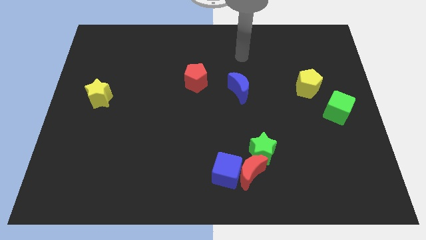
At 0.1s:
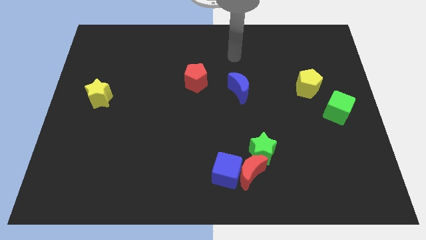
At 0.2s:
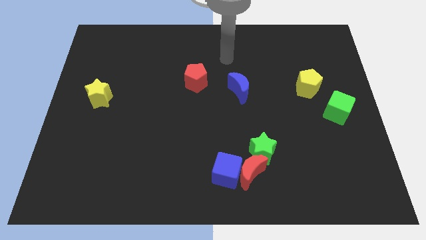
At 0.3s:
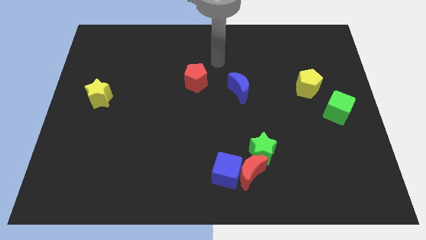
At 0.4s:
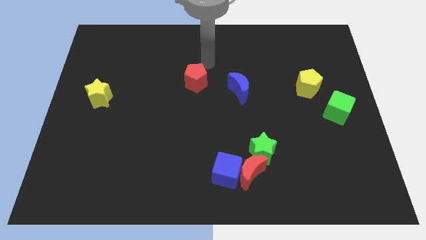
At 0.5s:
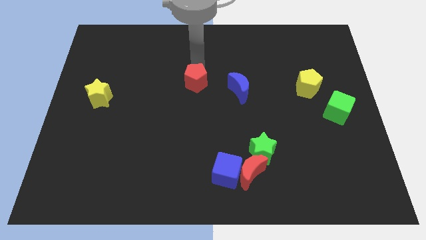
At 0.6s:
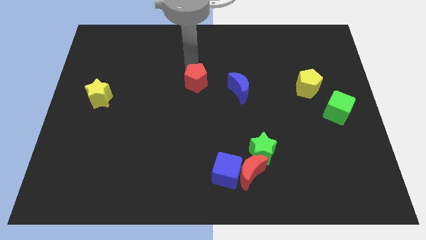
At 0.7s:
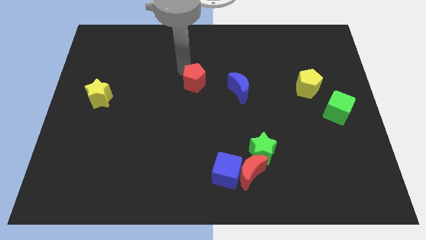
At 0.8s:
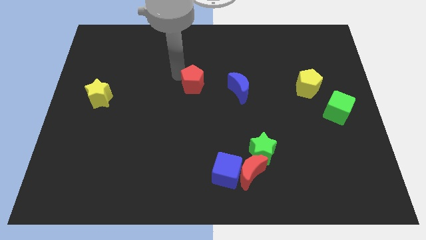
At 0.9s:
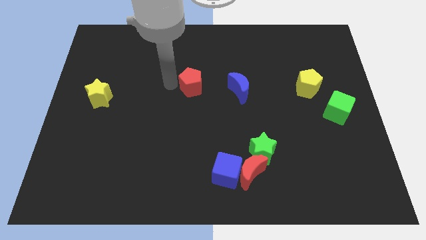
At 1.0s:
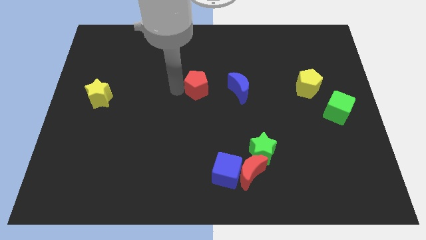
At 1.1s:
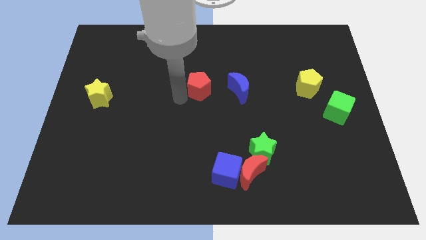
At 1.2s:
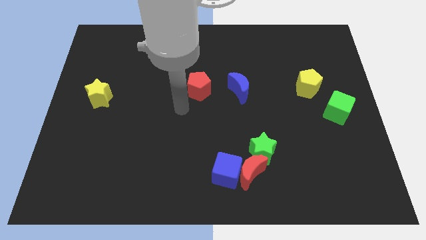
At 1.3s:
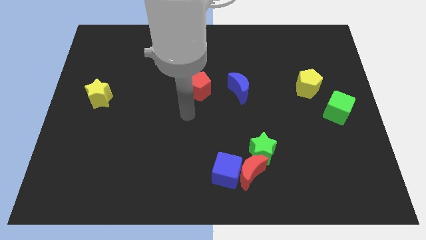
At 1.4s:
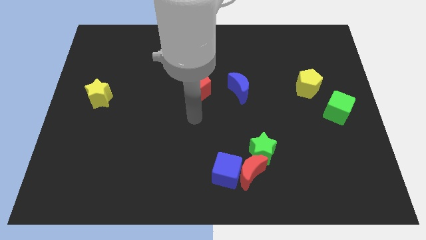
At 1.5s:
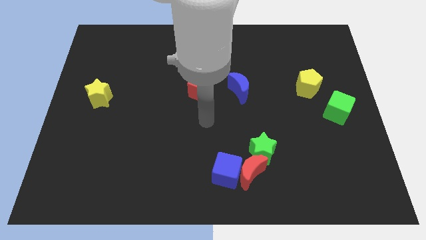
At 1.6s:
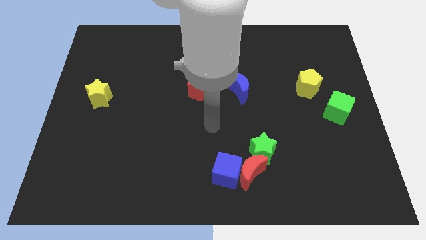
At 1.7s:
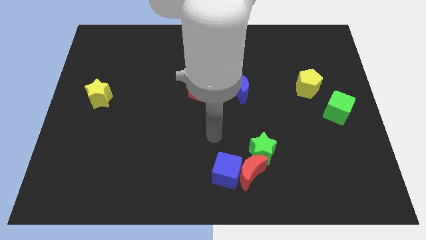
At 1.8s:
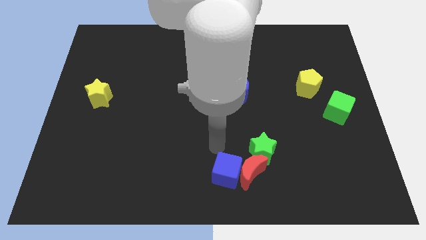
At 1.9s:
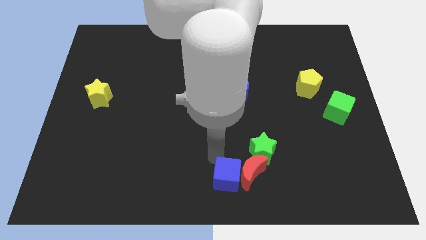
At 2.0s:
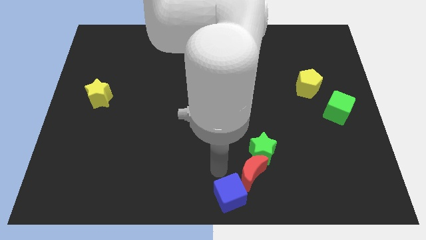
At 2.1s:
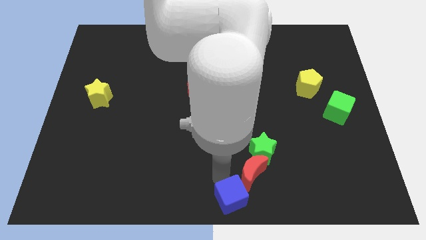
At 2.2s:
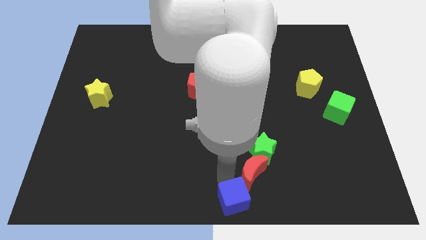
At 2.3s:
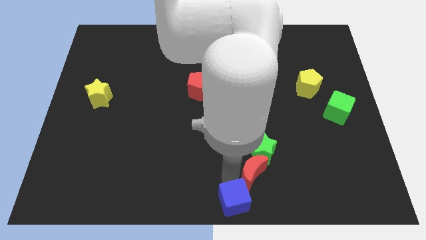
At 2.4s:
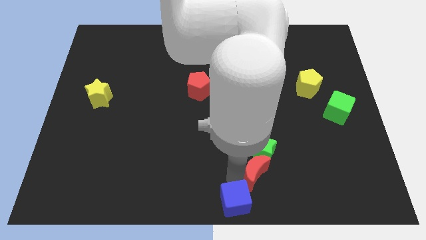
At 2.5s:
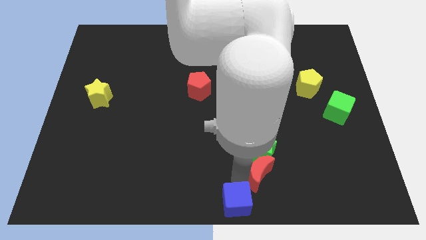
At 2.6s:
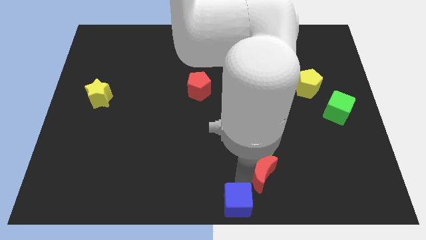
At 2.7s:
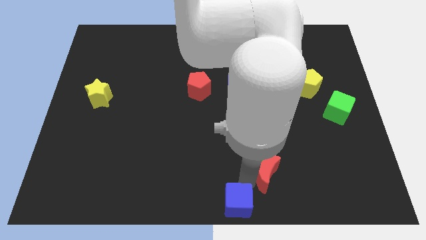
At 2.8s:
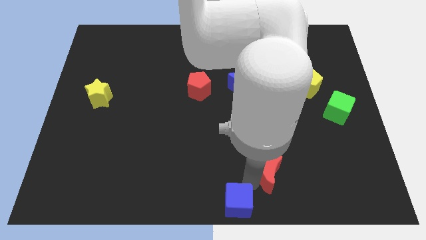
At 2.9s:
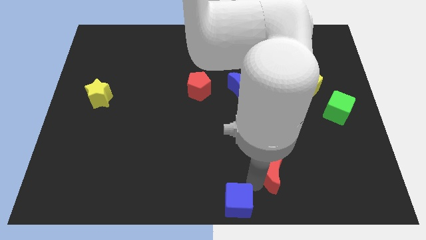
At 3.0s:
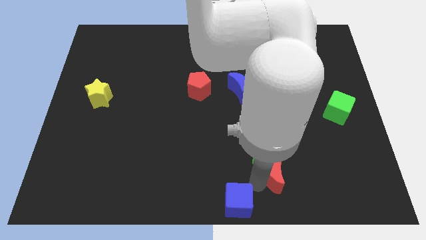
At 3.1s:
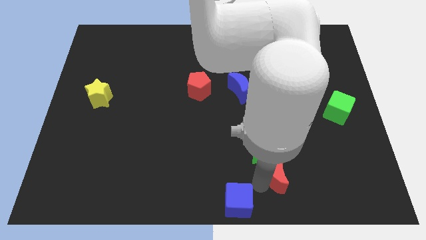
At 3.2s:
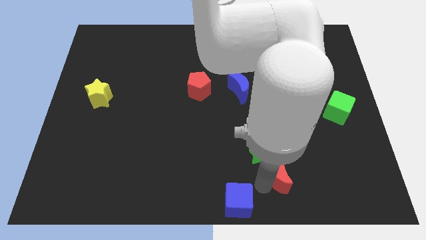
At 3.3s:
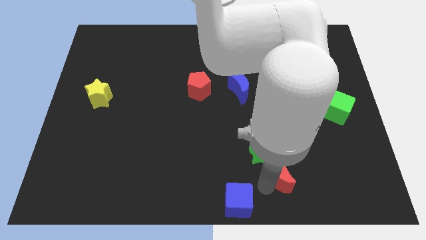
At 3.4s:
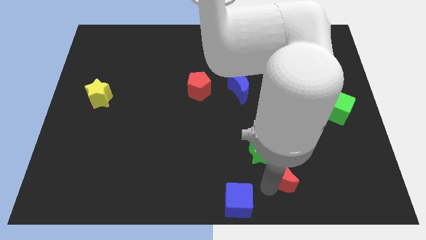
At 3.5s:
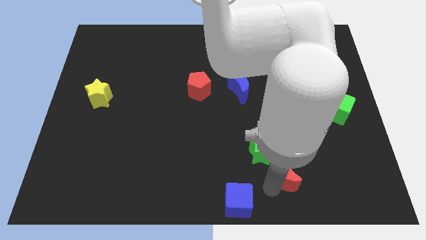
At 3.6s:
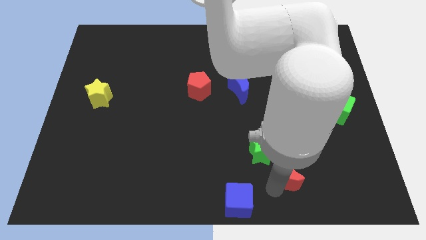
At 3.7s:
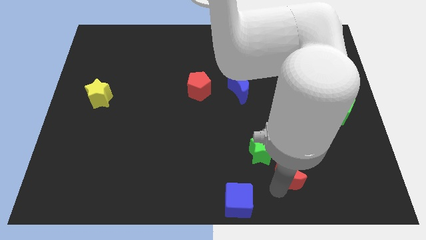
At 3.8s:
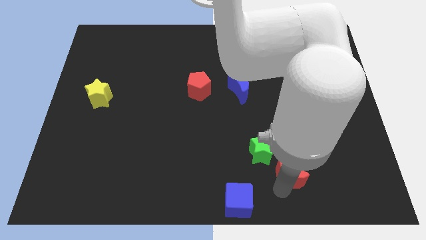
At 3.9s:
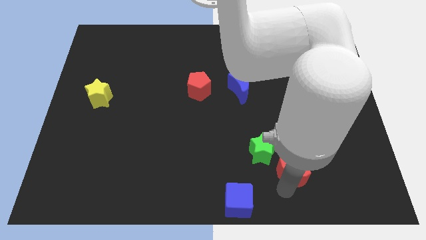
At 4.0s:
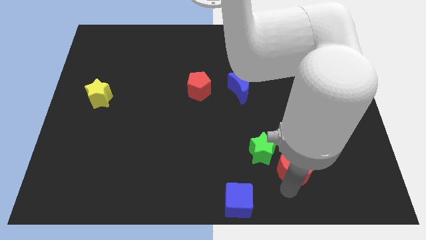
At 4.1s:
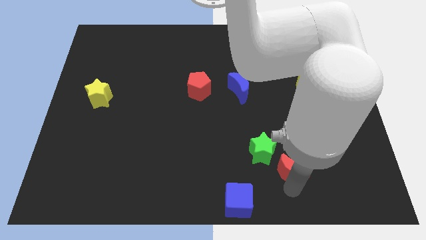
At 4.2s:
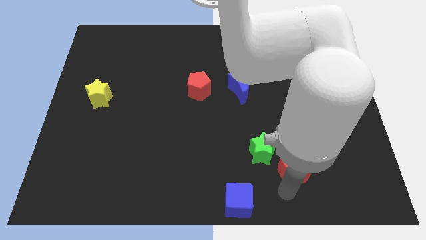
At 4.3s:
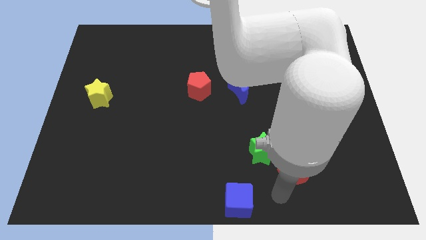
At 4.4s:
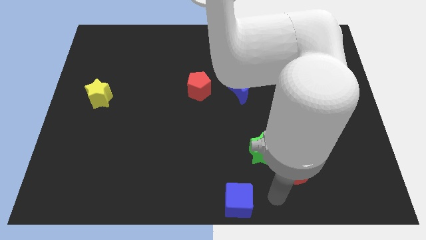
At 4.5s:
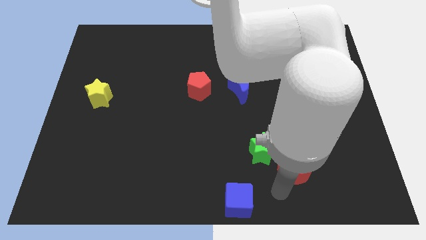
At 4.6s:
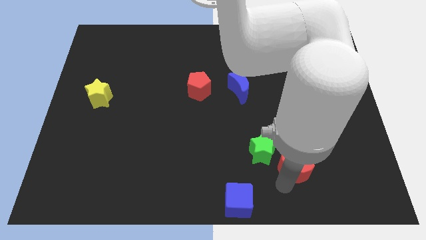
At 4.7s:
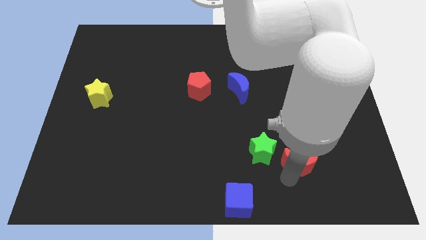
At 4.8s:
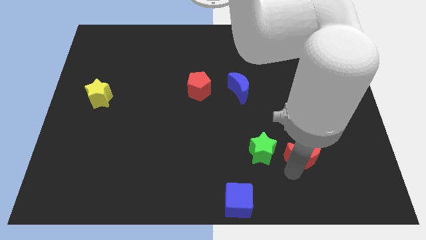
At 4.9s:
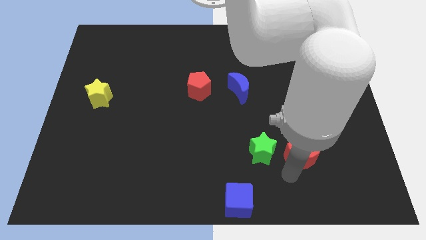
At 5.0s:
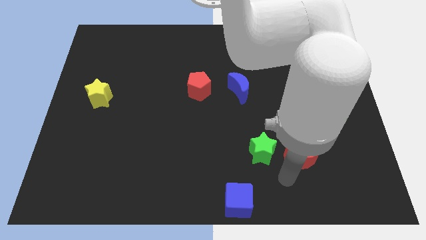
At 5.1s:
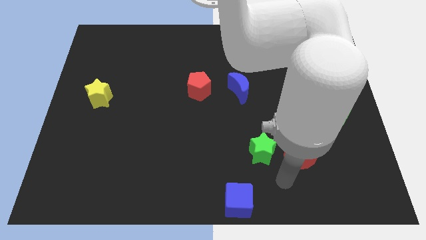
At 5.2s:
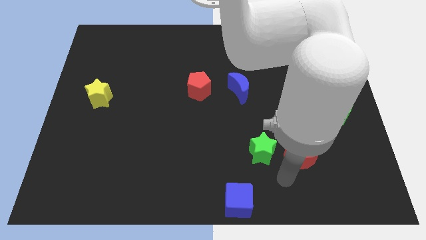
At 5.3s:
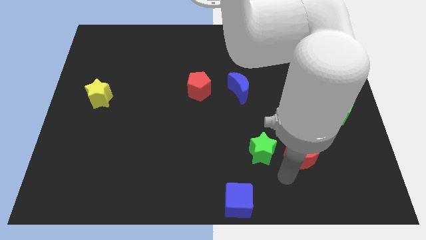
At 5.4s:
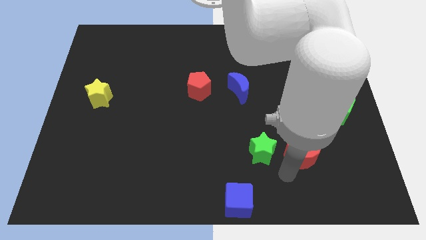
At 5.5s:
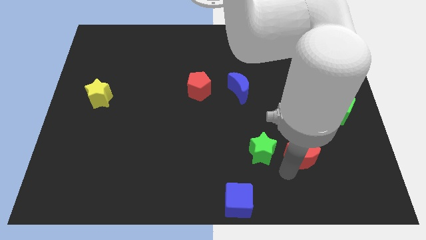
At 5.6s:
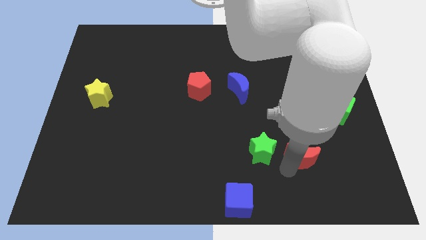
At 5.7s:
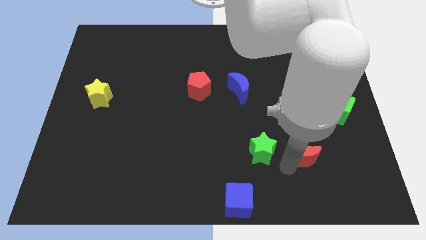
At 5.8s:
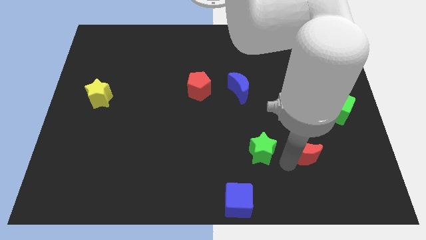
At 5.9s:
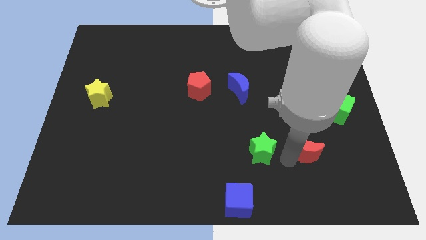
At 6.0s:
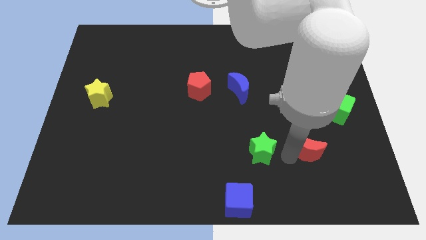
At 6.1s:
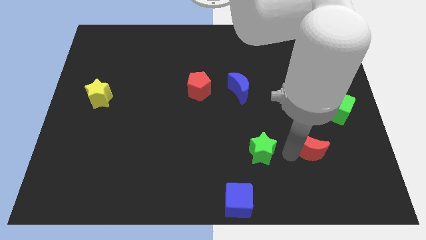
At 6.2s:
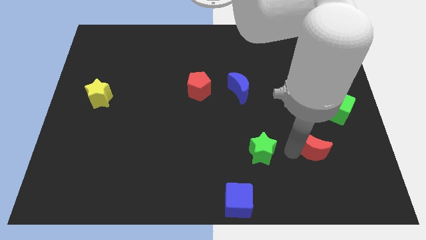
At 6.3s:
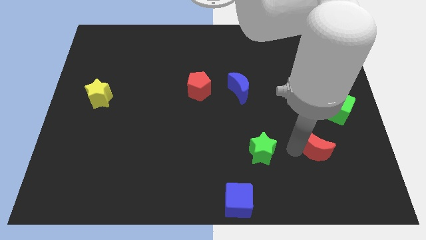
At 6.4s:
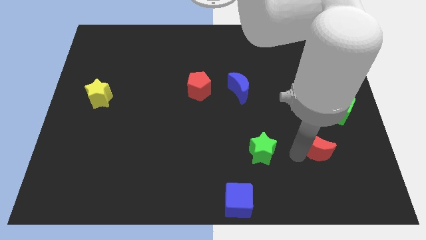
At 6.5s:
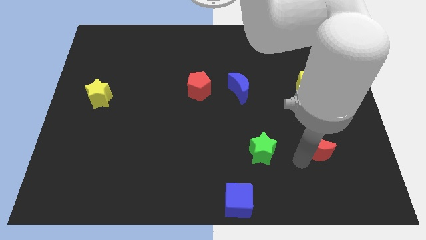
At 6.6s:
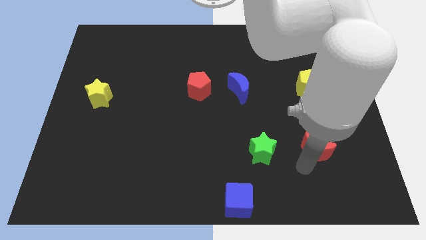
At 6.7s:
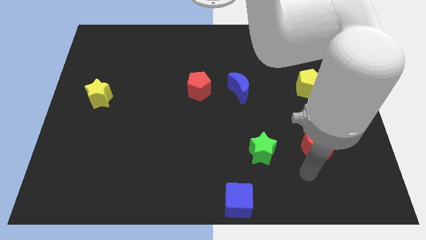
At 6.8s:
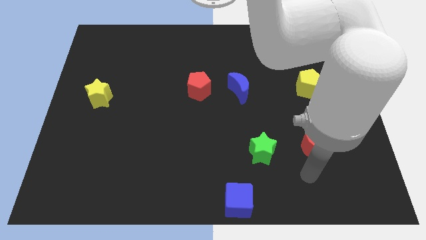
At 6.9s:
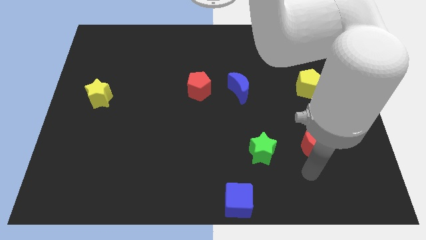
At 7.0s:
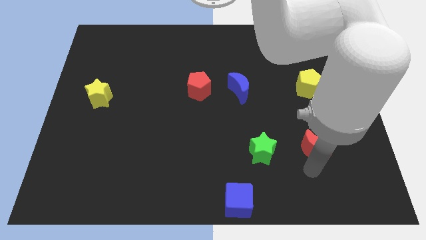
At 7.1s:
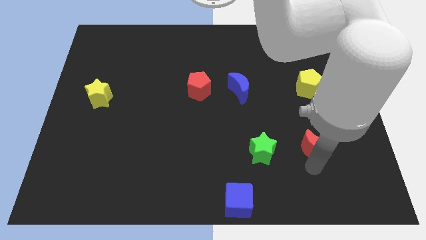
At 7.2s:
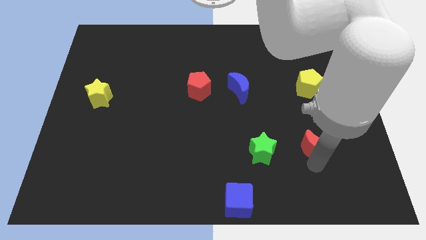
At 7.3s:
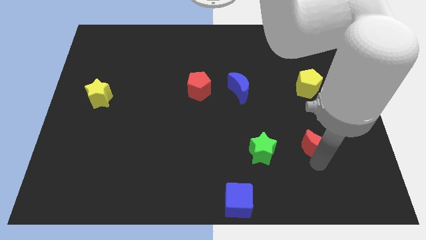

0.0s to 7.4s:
put the red moon to the bottom left side of the green cube
